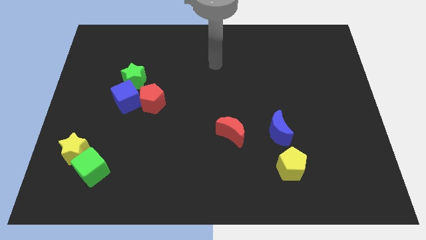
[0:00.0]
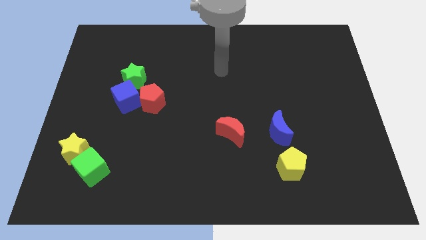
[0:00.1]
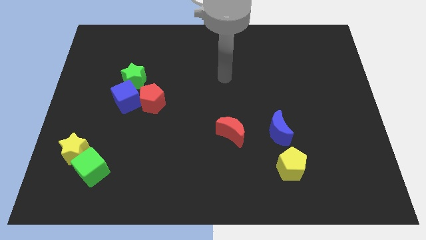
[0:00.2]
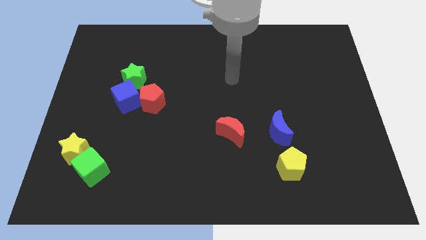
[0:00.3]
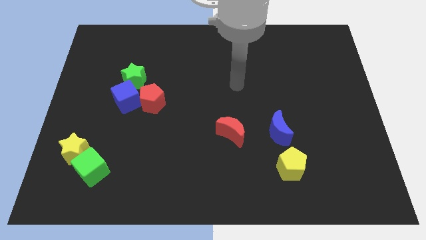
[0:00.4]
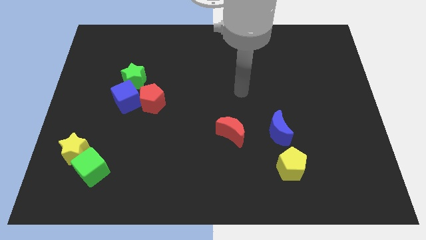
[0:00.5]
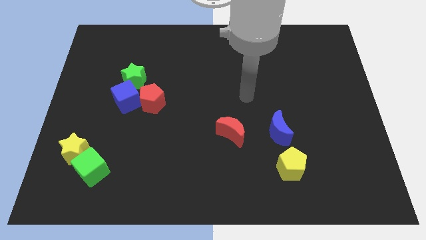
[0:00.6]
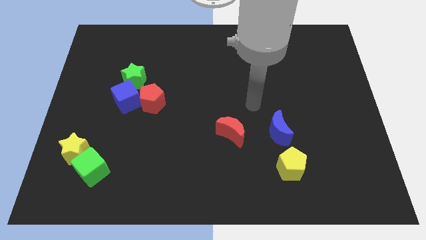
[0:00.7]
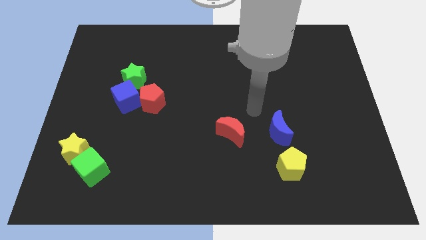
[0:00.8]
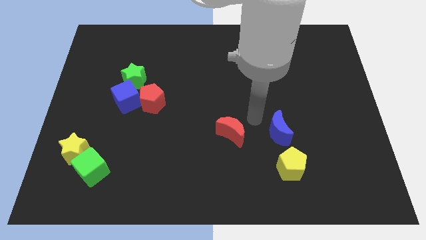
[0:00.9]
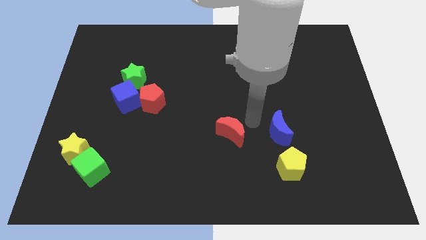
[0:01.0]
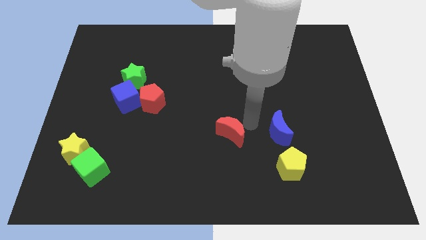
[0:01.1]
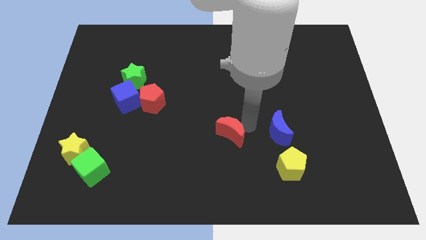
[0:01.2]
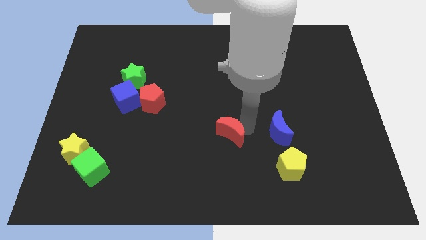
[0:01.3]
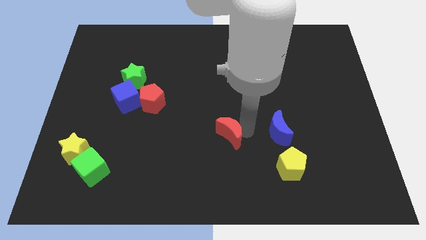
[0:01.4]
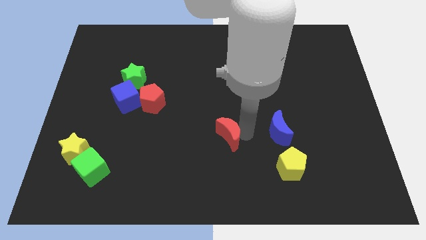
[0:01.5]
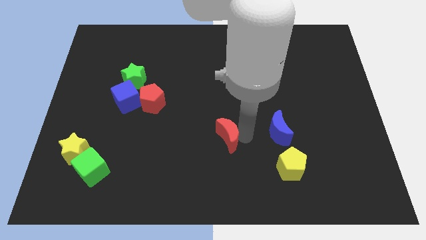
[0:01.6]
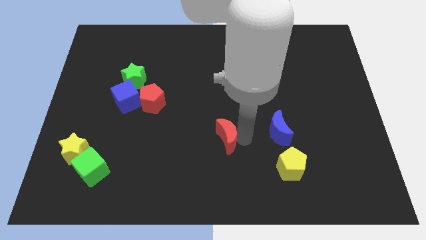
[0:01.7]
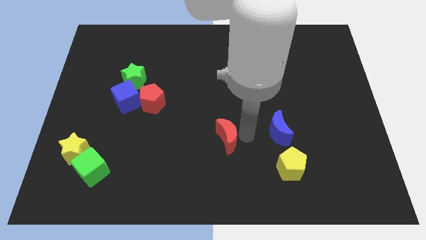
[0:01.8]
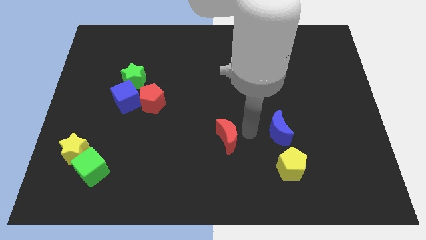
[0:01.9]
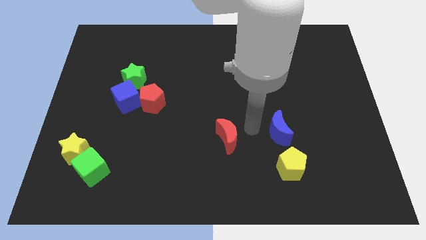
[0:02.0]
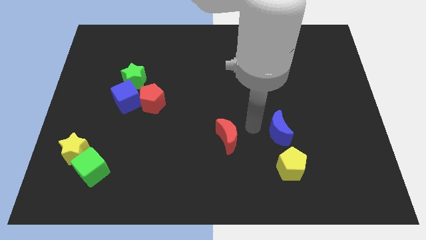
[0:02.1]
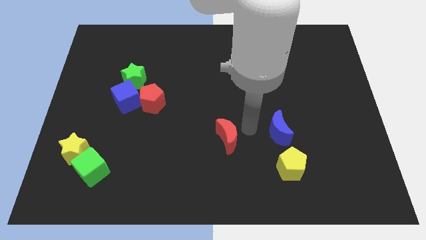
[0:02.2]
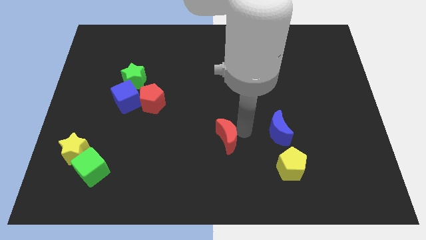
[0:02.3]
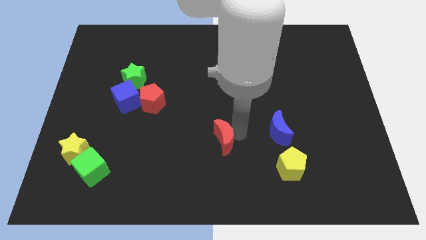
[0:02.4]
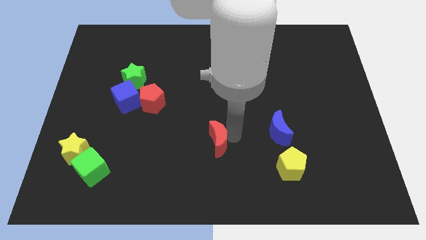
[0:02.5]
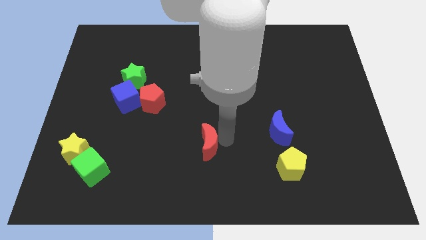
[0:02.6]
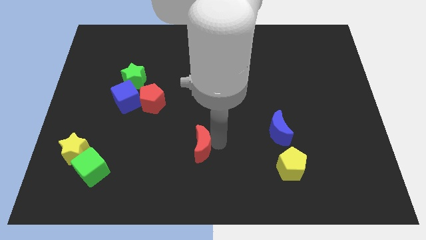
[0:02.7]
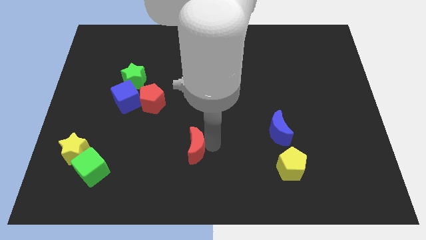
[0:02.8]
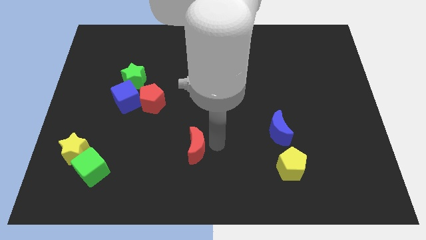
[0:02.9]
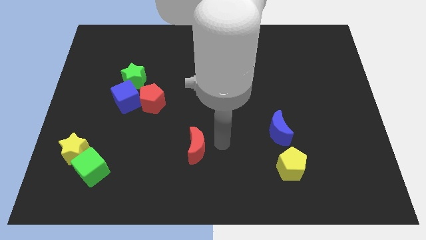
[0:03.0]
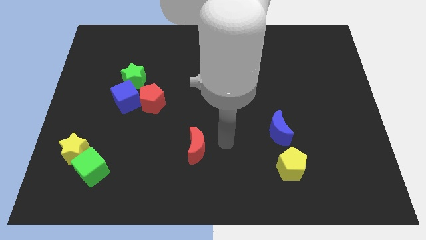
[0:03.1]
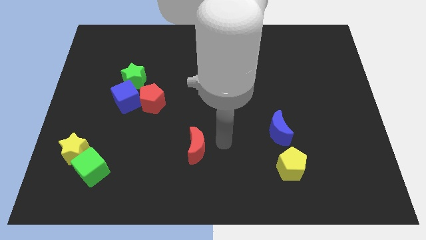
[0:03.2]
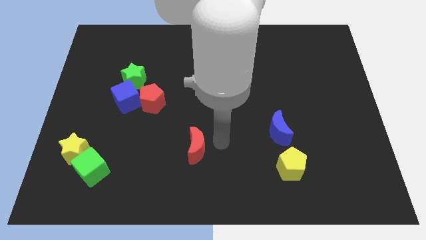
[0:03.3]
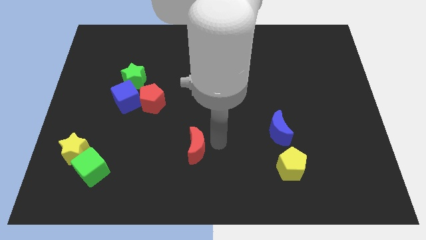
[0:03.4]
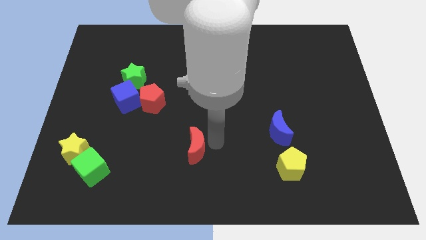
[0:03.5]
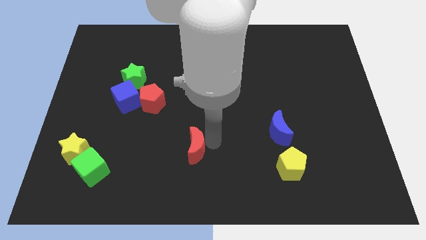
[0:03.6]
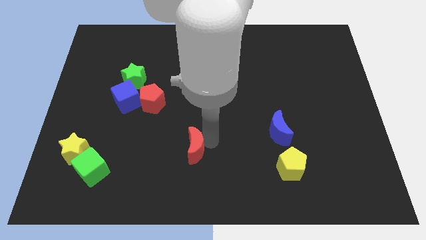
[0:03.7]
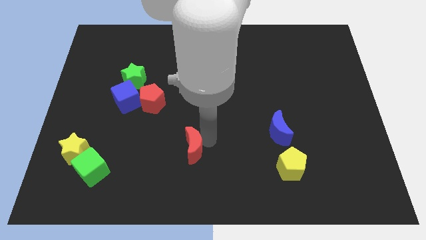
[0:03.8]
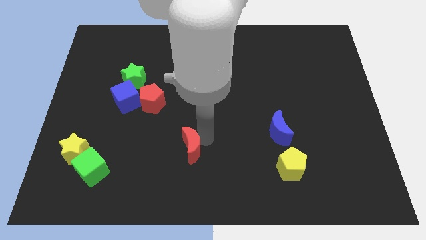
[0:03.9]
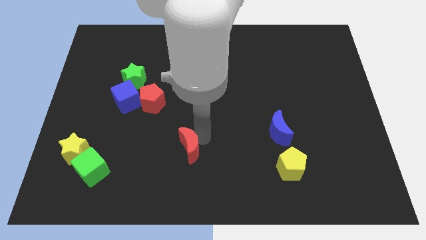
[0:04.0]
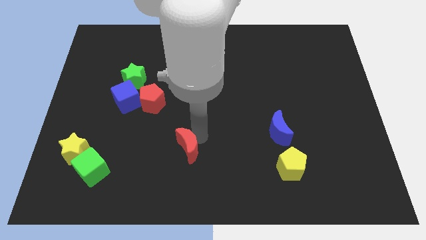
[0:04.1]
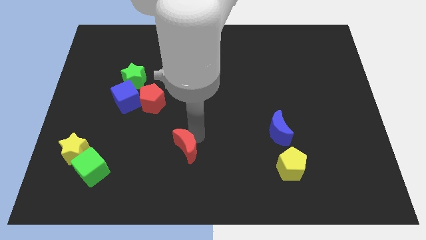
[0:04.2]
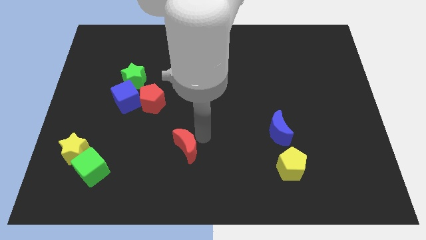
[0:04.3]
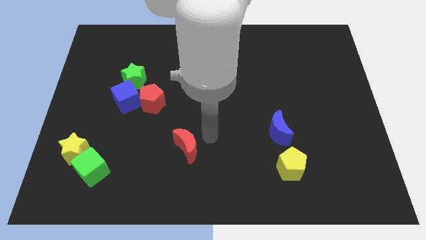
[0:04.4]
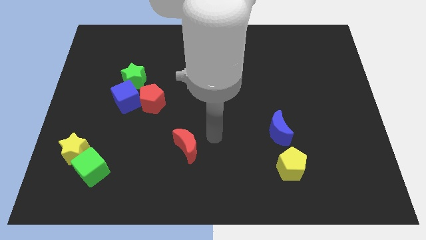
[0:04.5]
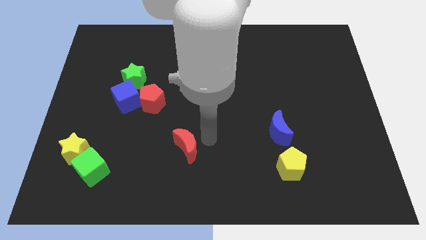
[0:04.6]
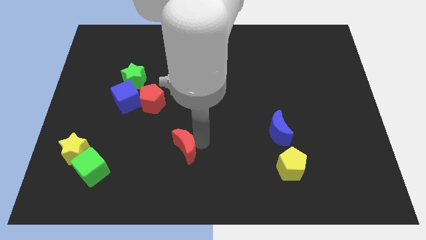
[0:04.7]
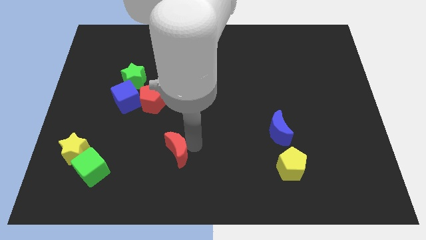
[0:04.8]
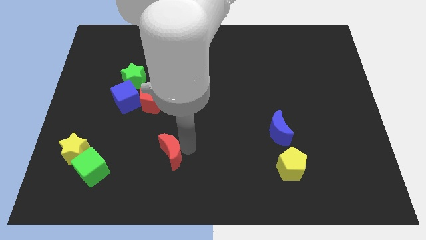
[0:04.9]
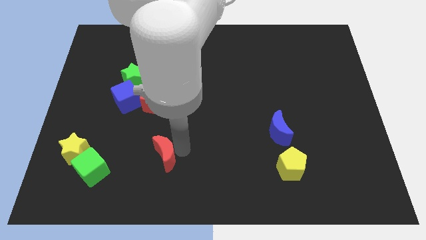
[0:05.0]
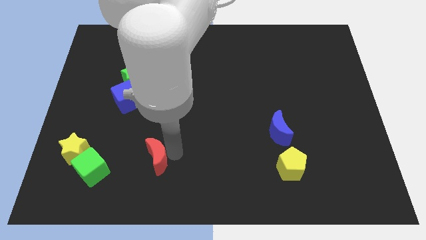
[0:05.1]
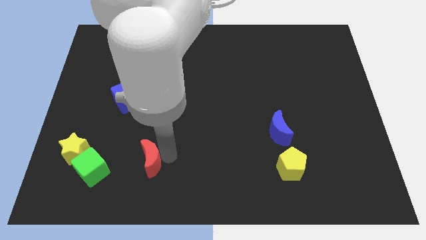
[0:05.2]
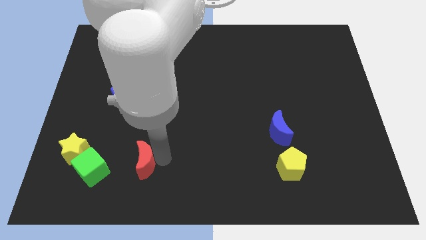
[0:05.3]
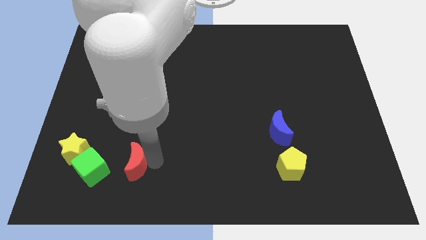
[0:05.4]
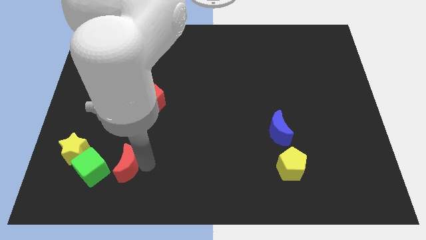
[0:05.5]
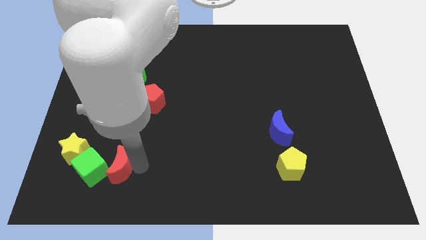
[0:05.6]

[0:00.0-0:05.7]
push the red moon to the green cube
